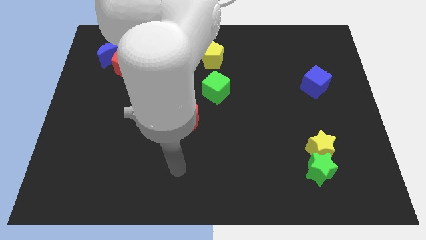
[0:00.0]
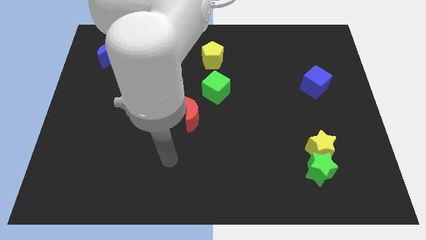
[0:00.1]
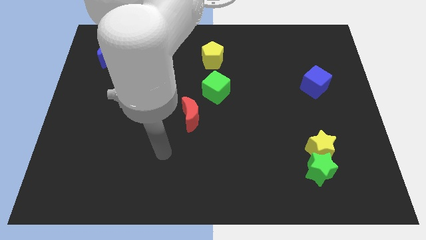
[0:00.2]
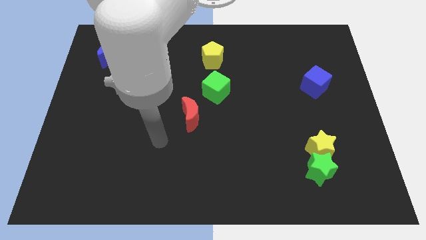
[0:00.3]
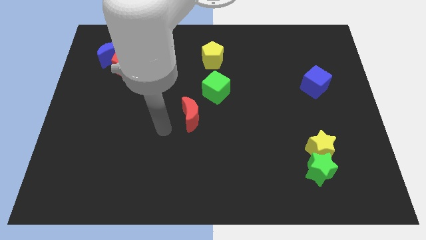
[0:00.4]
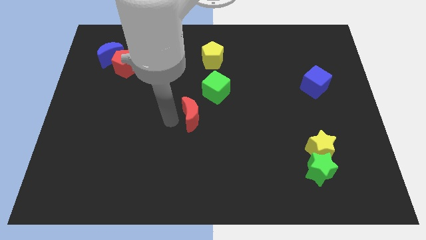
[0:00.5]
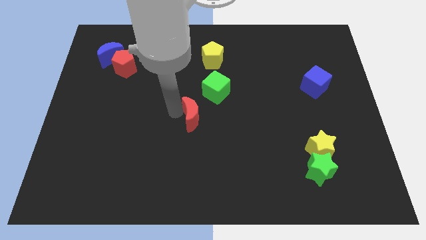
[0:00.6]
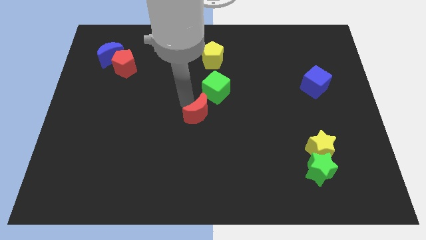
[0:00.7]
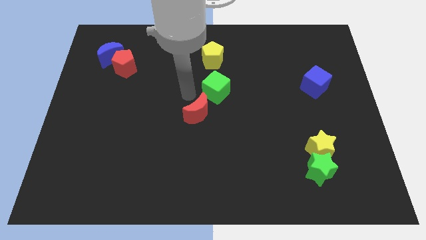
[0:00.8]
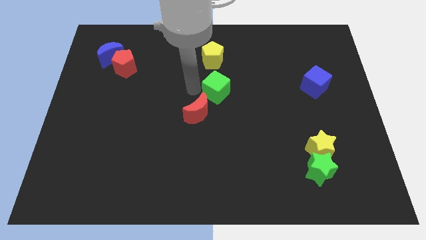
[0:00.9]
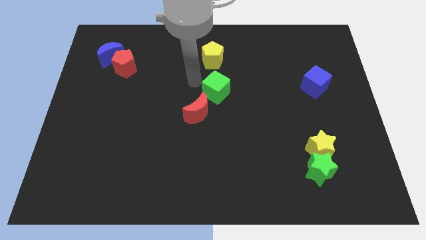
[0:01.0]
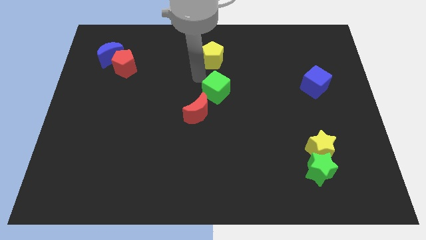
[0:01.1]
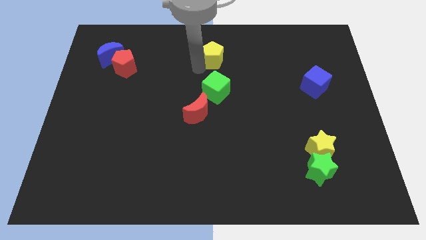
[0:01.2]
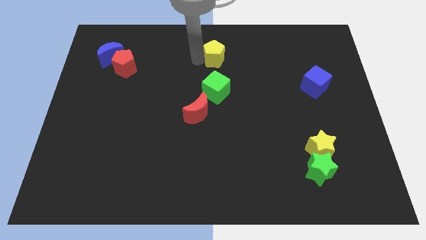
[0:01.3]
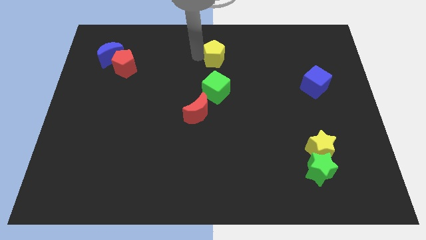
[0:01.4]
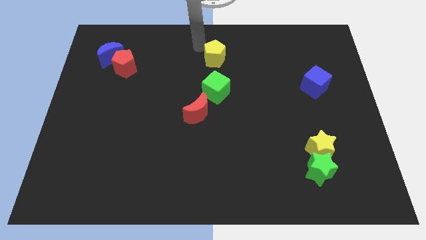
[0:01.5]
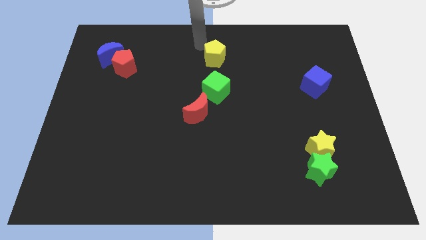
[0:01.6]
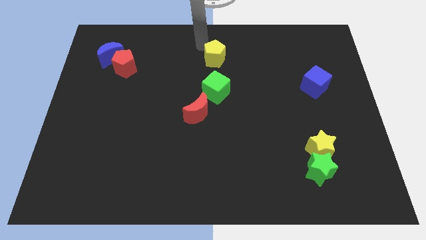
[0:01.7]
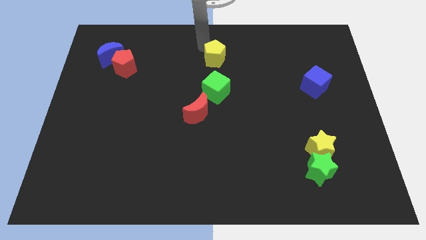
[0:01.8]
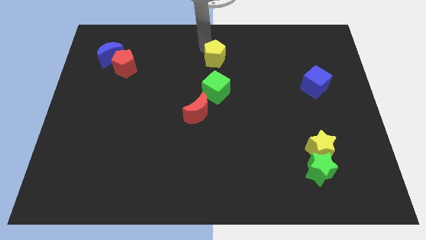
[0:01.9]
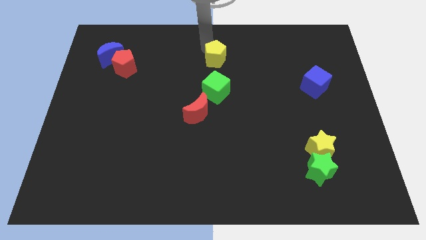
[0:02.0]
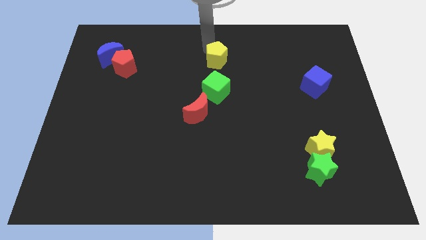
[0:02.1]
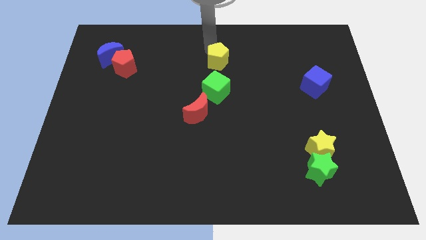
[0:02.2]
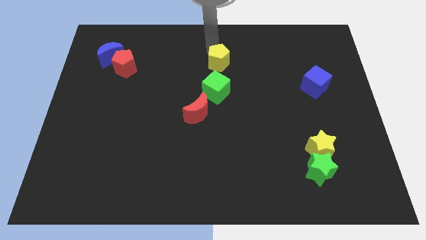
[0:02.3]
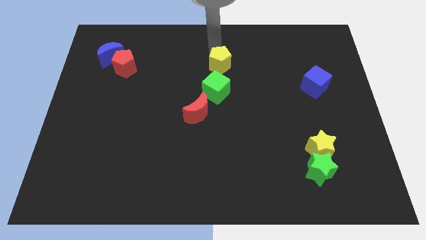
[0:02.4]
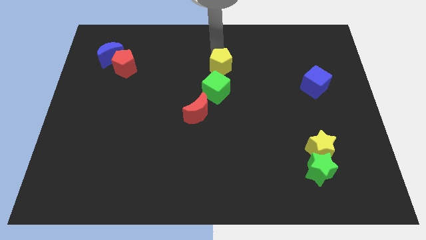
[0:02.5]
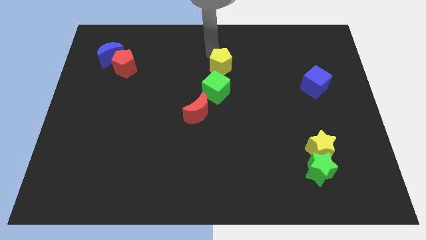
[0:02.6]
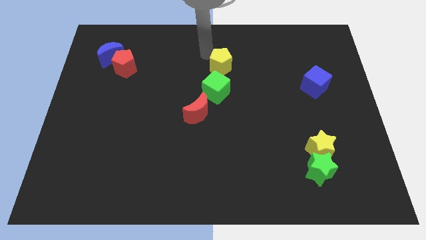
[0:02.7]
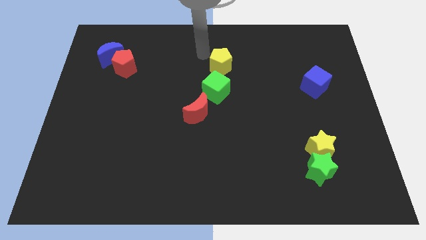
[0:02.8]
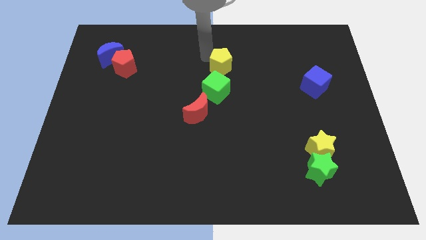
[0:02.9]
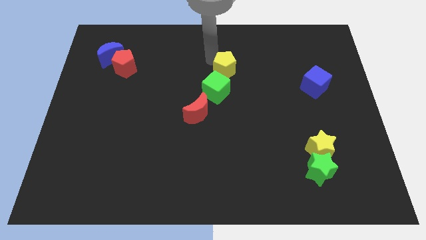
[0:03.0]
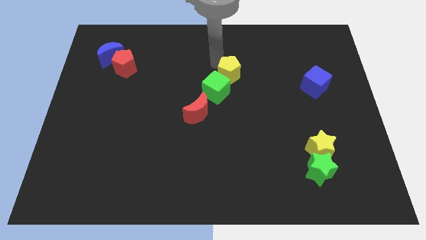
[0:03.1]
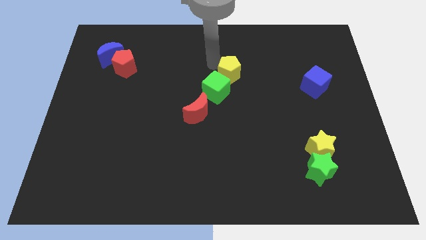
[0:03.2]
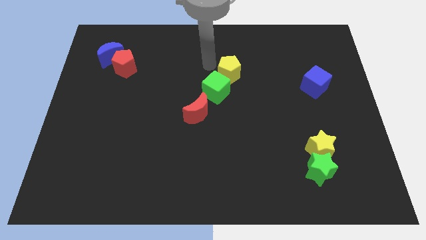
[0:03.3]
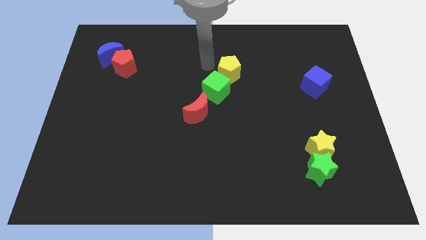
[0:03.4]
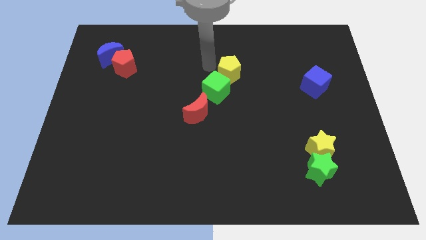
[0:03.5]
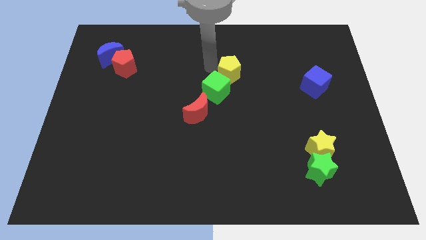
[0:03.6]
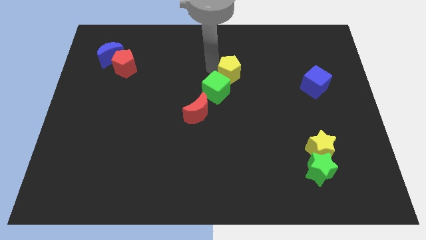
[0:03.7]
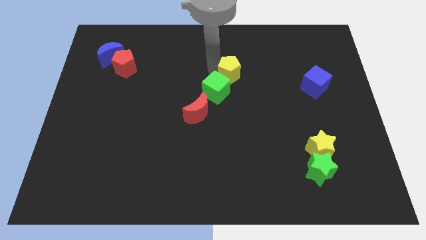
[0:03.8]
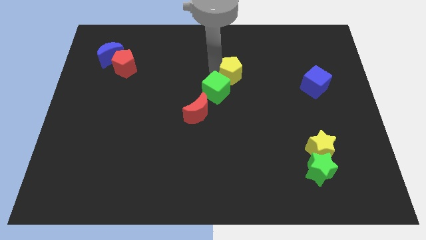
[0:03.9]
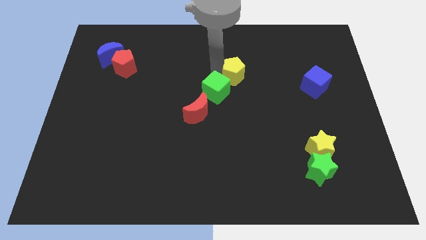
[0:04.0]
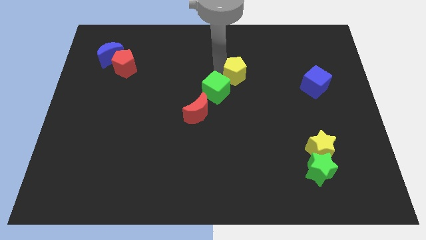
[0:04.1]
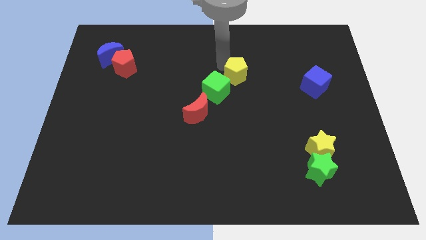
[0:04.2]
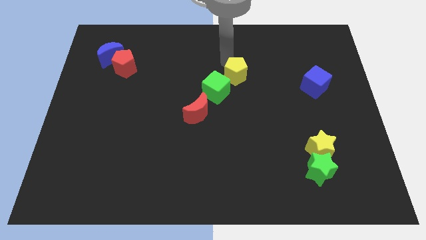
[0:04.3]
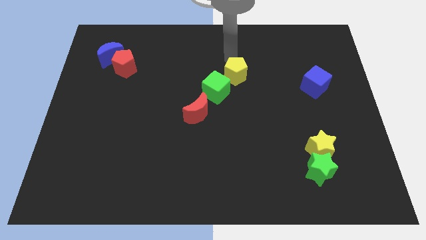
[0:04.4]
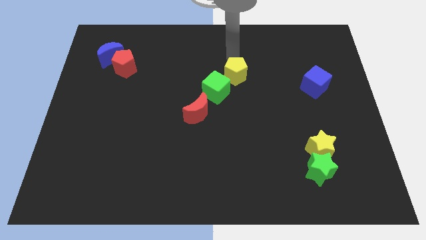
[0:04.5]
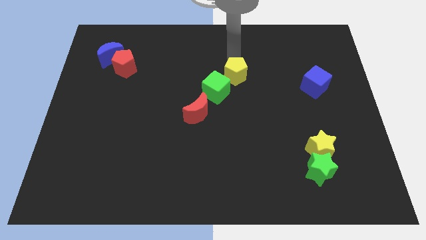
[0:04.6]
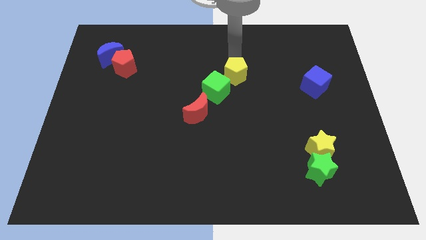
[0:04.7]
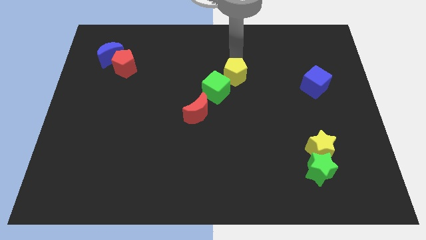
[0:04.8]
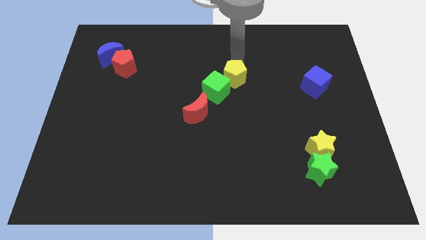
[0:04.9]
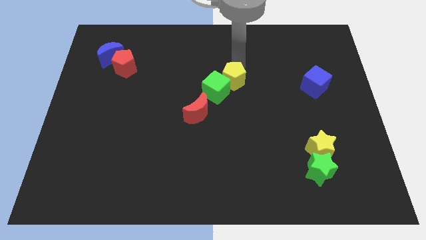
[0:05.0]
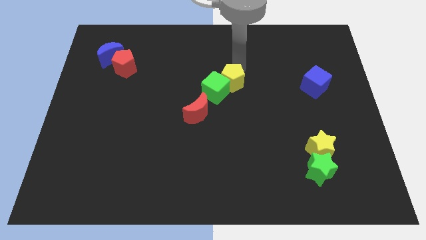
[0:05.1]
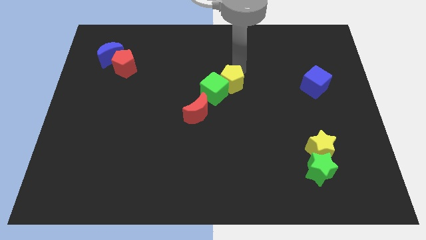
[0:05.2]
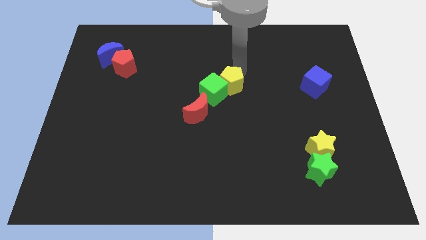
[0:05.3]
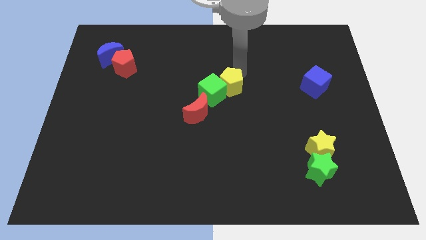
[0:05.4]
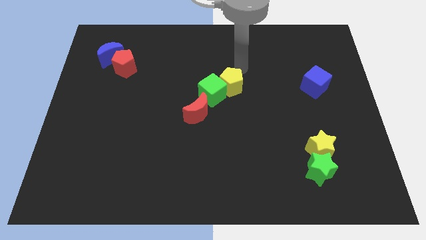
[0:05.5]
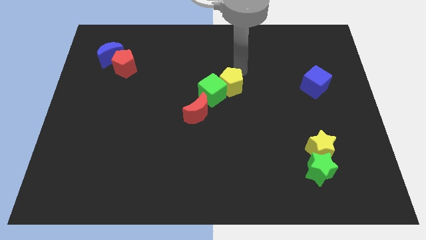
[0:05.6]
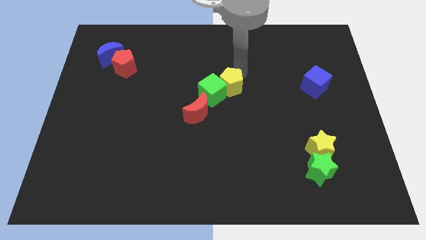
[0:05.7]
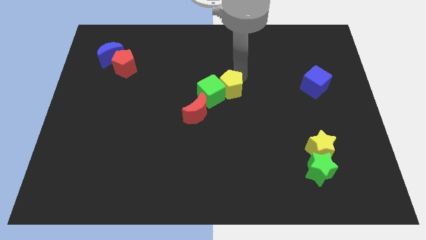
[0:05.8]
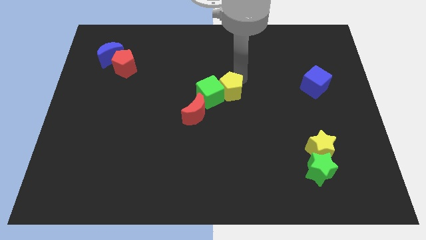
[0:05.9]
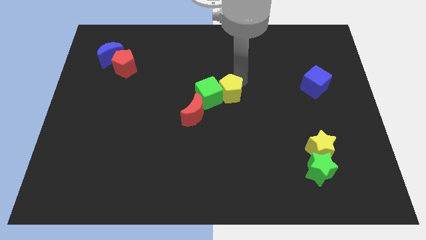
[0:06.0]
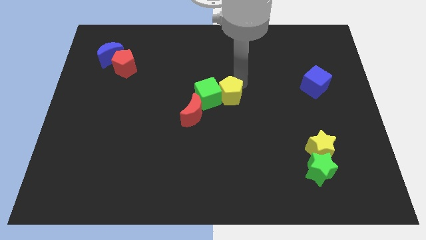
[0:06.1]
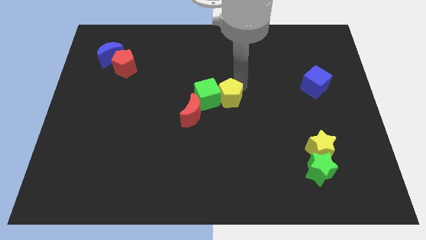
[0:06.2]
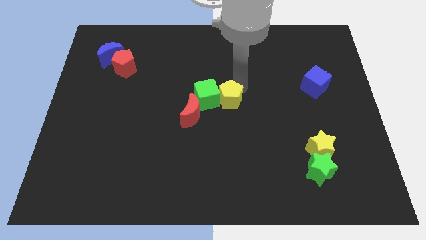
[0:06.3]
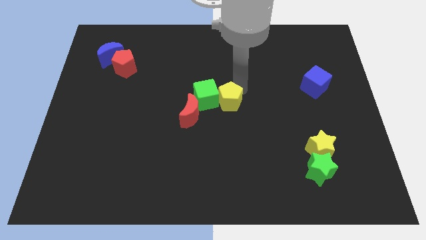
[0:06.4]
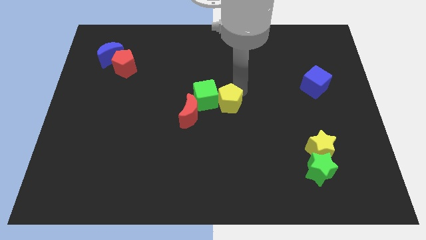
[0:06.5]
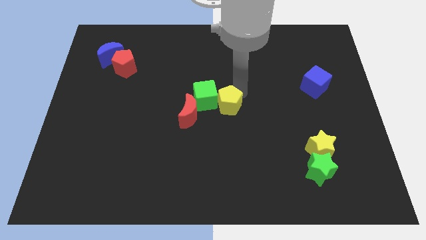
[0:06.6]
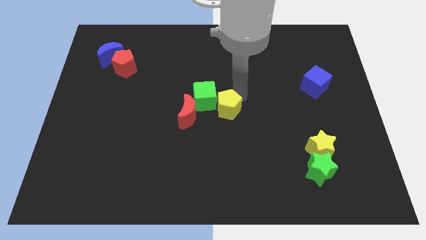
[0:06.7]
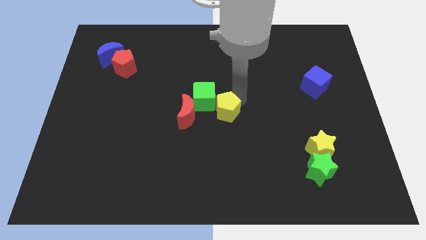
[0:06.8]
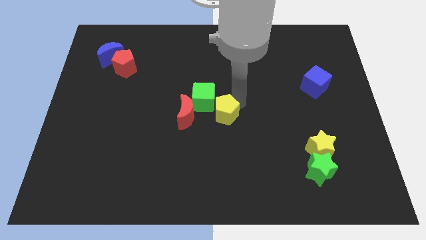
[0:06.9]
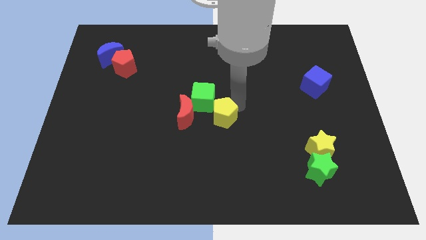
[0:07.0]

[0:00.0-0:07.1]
slide the yellow pentagon below the green cube
